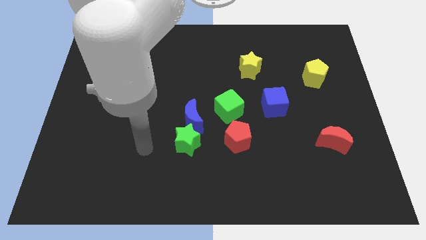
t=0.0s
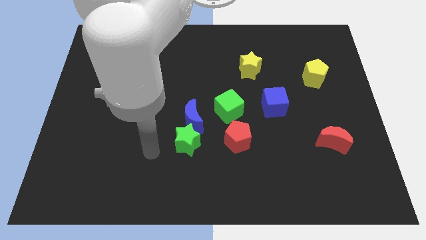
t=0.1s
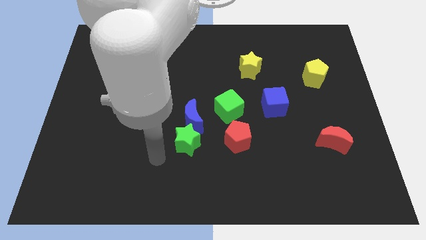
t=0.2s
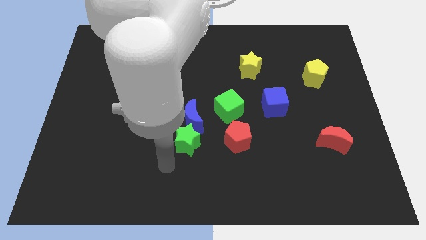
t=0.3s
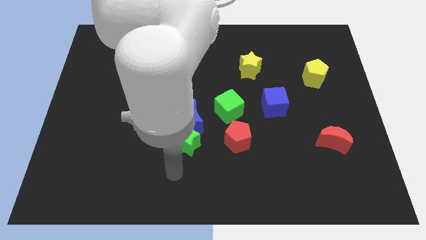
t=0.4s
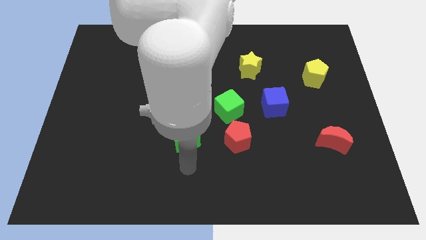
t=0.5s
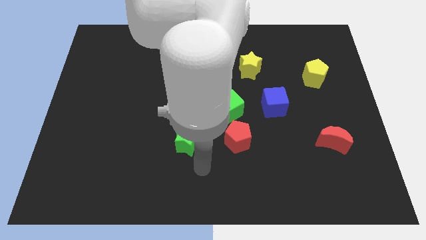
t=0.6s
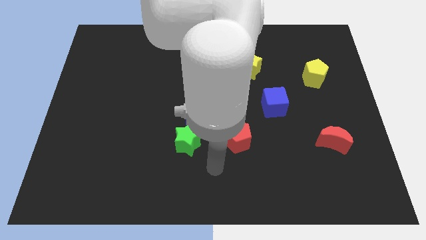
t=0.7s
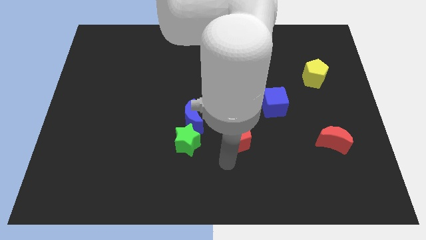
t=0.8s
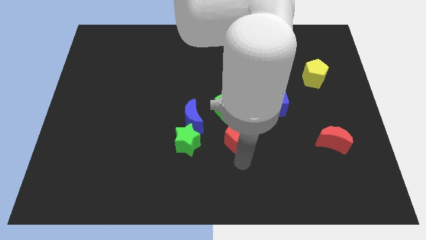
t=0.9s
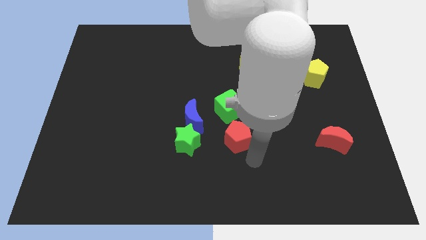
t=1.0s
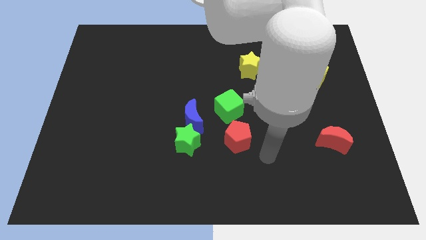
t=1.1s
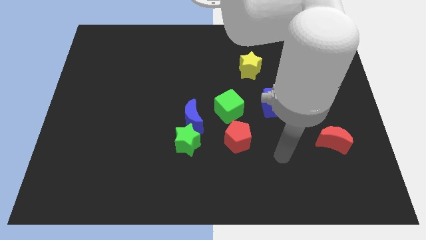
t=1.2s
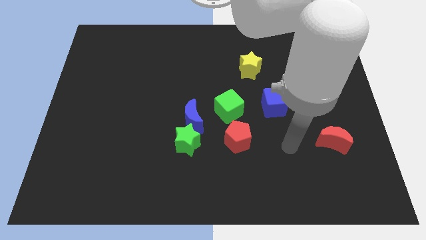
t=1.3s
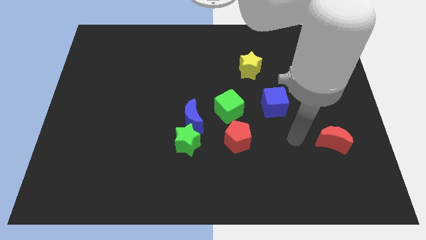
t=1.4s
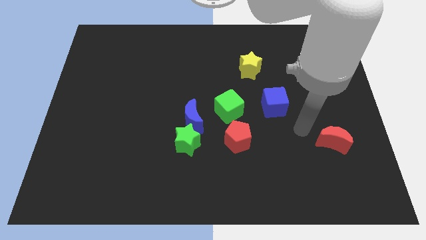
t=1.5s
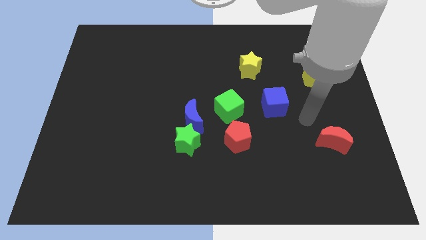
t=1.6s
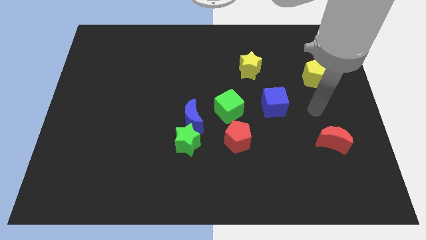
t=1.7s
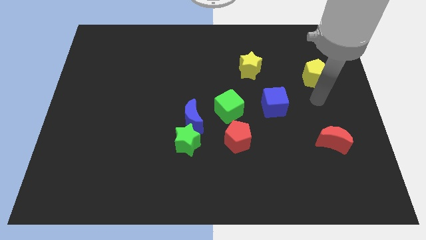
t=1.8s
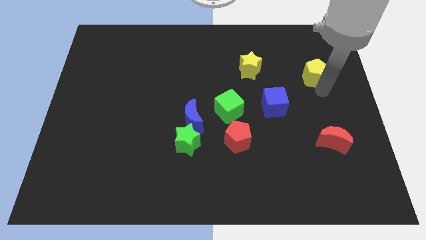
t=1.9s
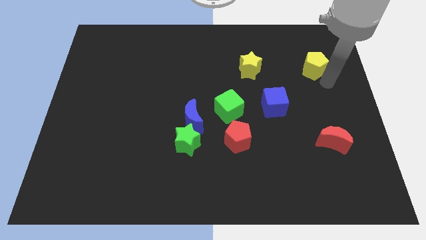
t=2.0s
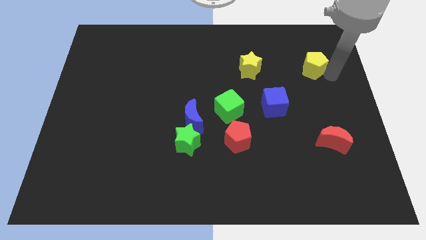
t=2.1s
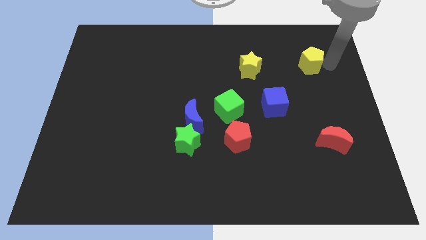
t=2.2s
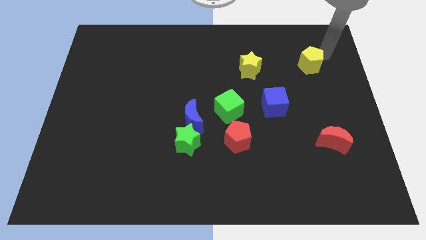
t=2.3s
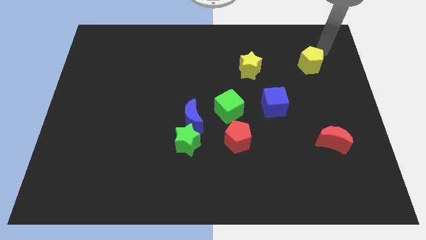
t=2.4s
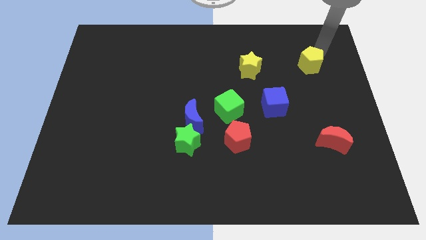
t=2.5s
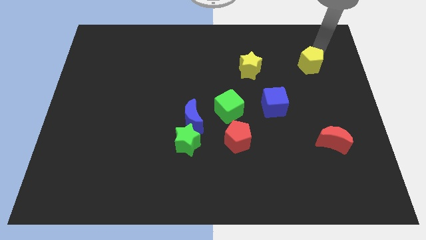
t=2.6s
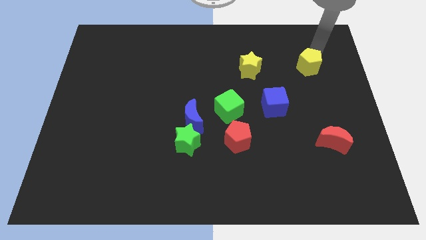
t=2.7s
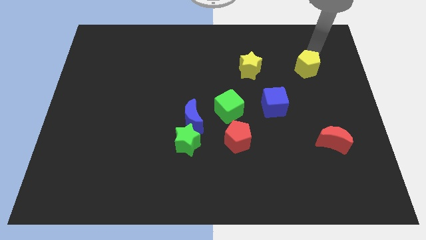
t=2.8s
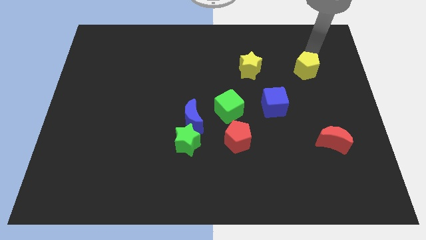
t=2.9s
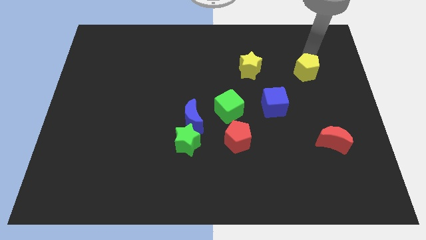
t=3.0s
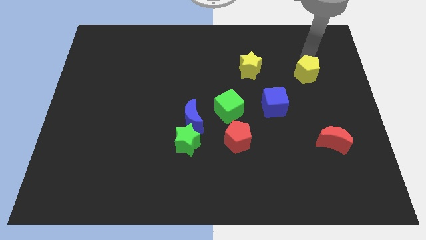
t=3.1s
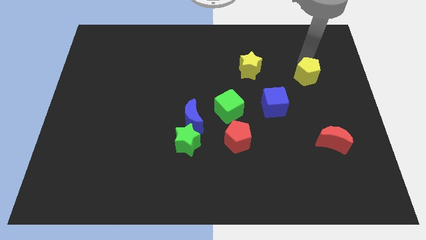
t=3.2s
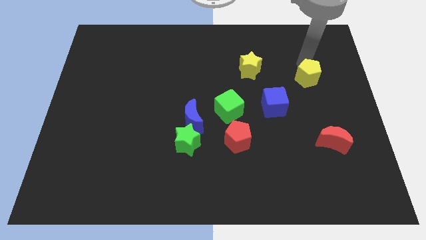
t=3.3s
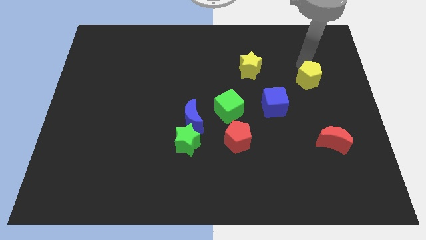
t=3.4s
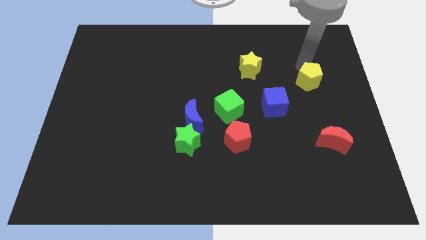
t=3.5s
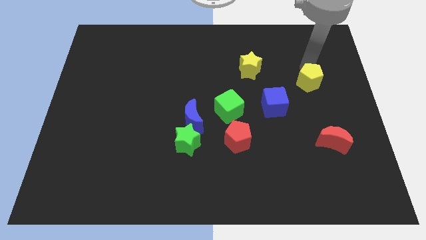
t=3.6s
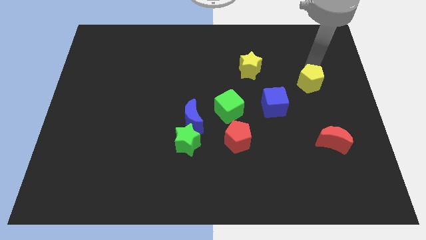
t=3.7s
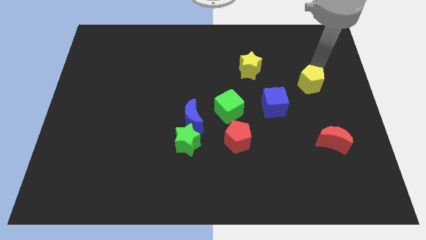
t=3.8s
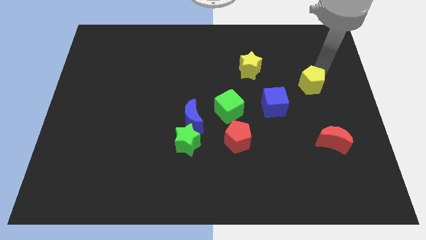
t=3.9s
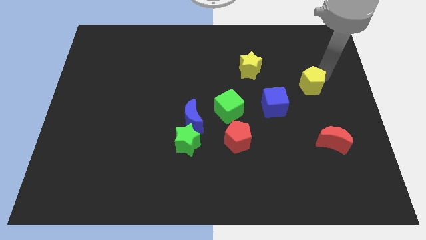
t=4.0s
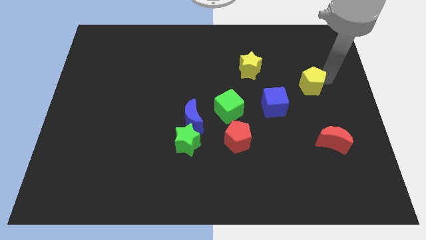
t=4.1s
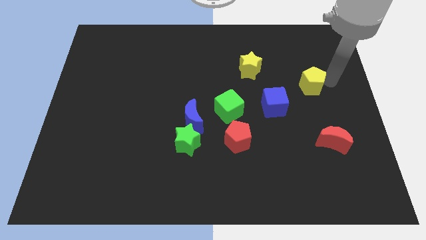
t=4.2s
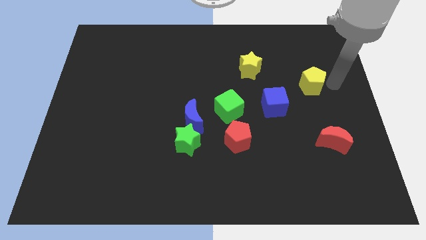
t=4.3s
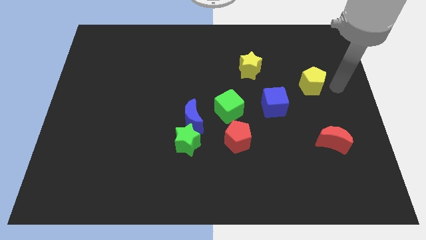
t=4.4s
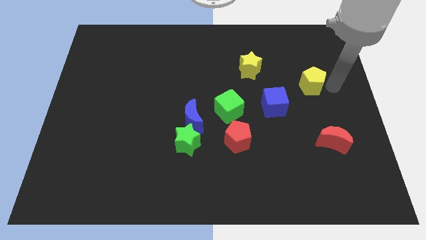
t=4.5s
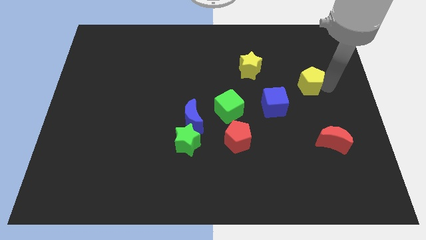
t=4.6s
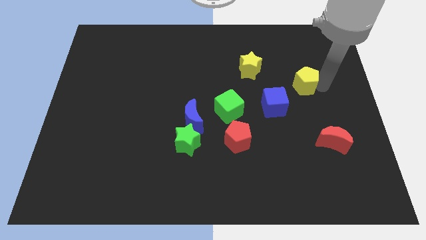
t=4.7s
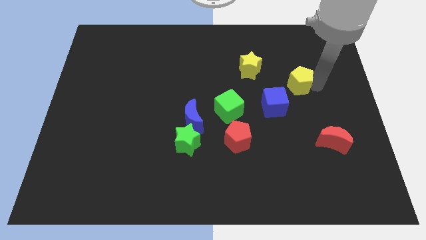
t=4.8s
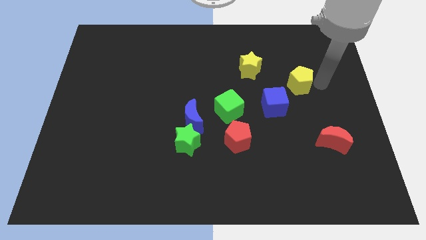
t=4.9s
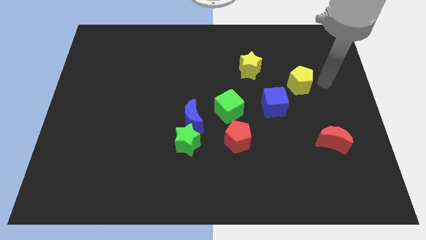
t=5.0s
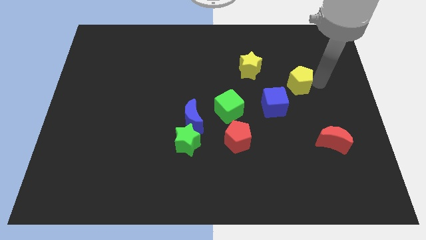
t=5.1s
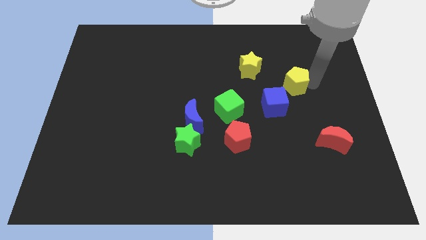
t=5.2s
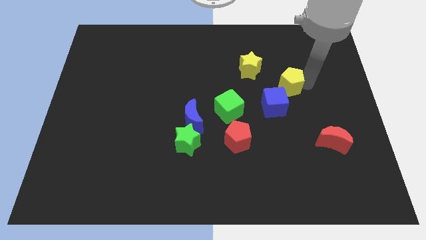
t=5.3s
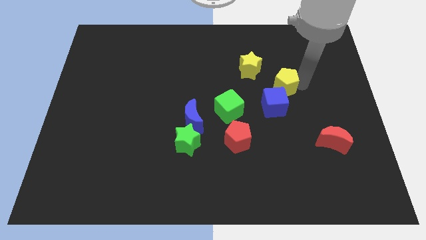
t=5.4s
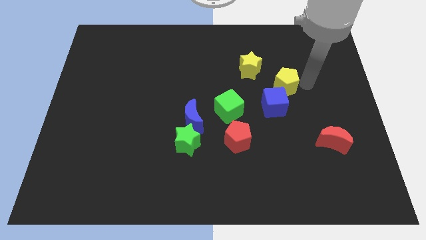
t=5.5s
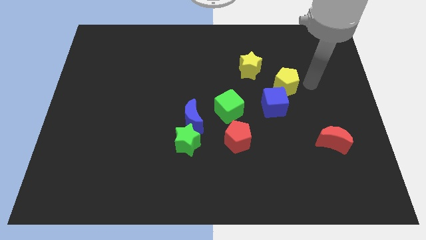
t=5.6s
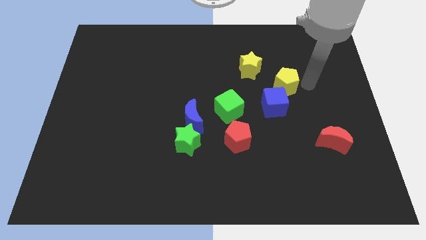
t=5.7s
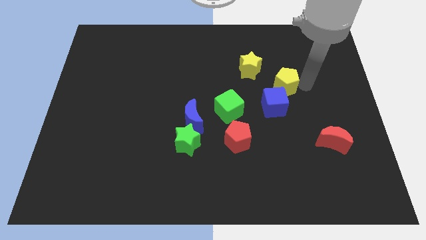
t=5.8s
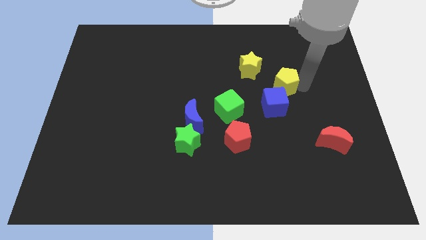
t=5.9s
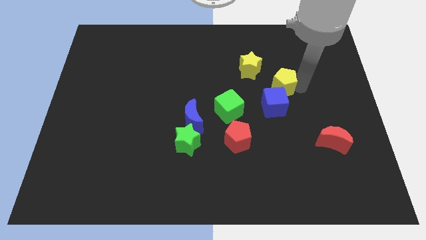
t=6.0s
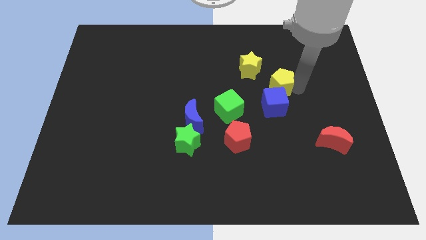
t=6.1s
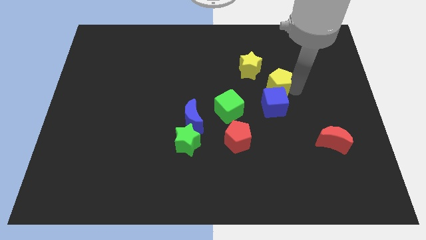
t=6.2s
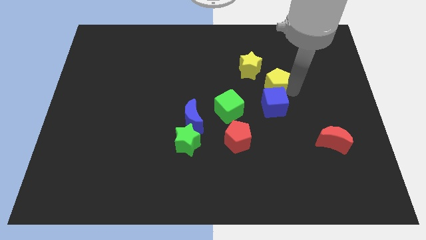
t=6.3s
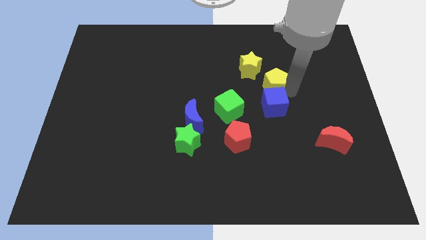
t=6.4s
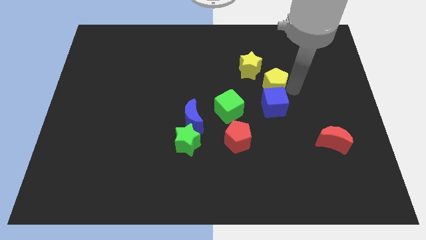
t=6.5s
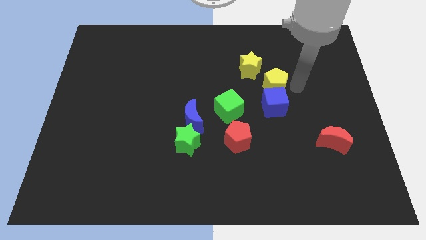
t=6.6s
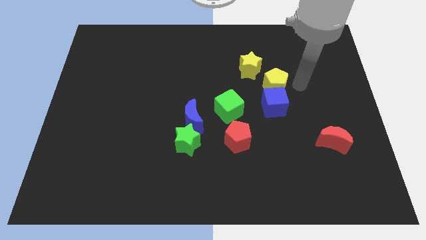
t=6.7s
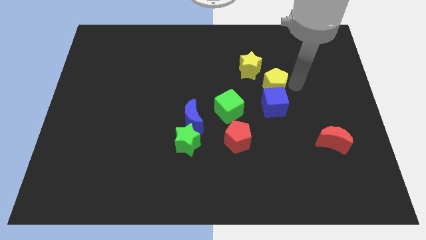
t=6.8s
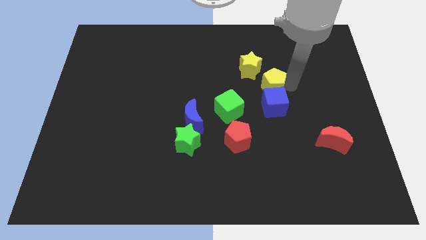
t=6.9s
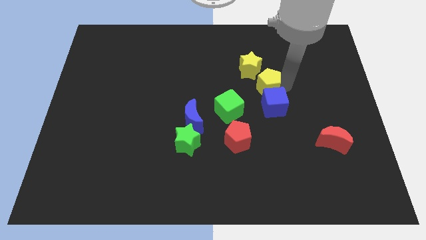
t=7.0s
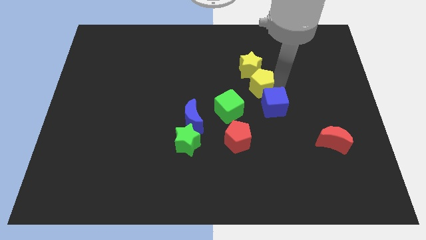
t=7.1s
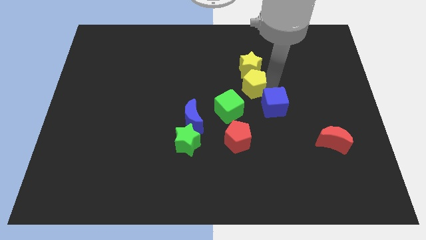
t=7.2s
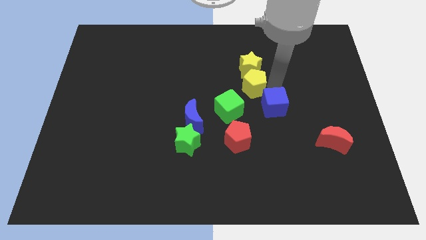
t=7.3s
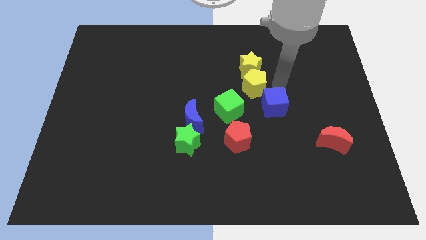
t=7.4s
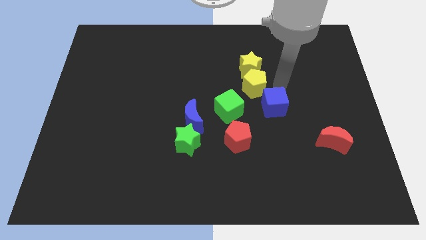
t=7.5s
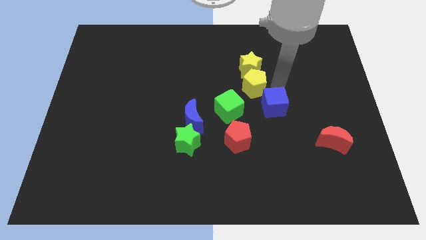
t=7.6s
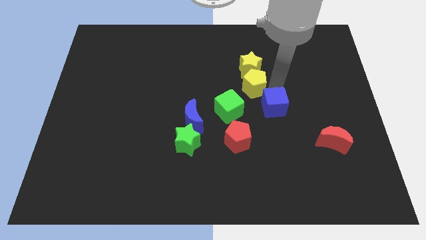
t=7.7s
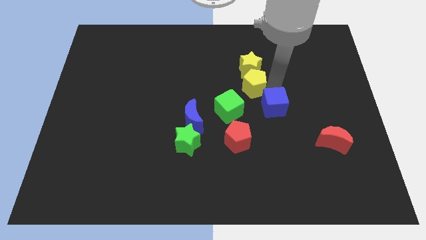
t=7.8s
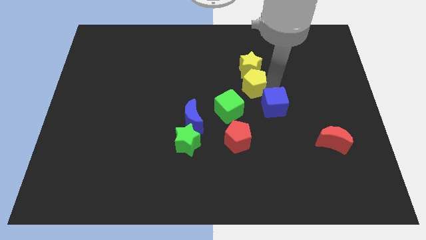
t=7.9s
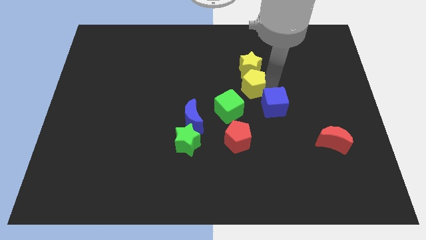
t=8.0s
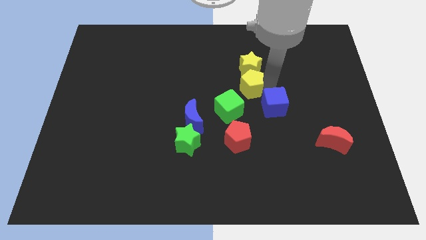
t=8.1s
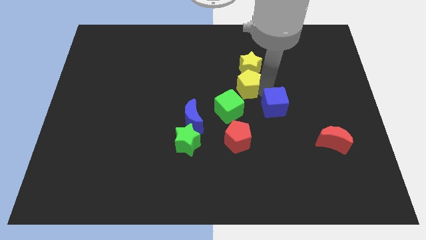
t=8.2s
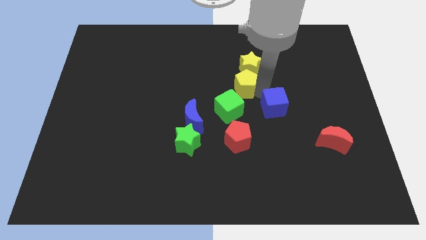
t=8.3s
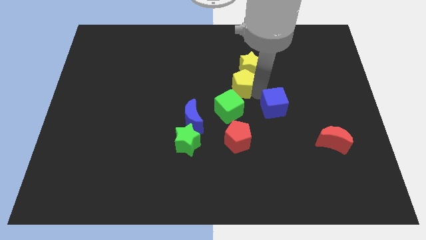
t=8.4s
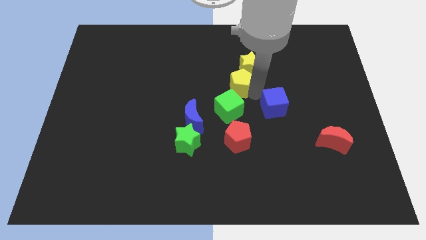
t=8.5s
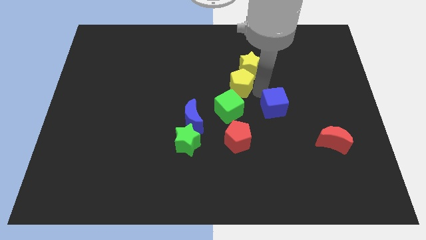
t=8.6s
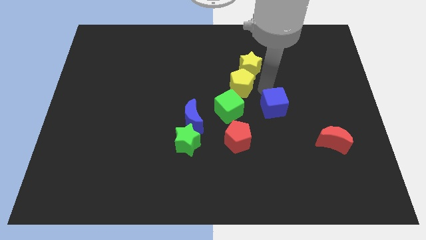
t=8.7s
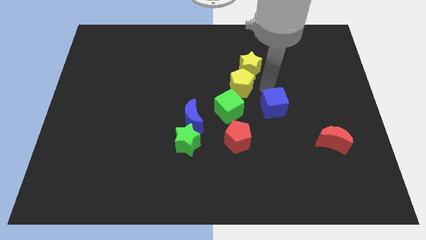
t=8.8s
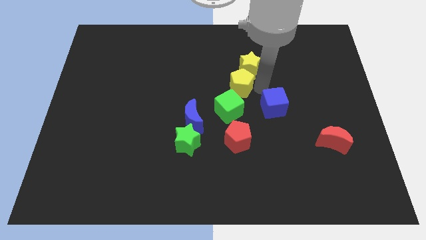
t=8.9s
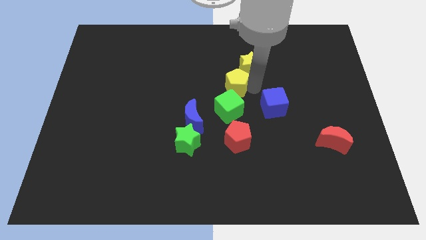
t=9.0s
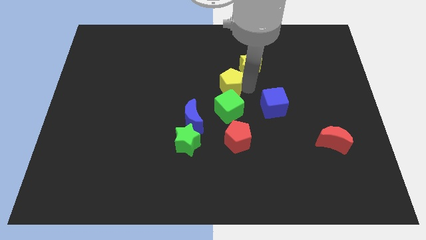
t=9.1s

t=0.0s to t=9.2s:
move the yellow pentagon left
